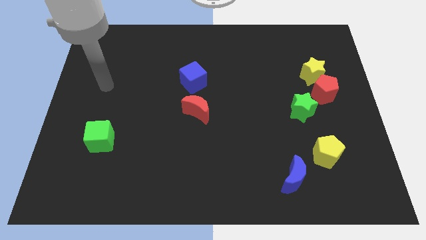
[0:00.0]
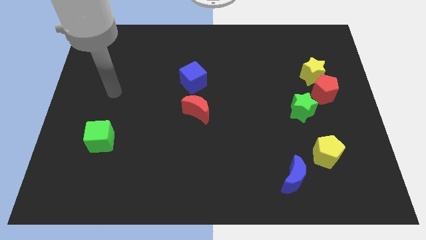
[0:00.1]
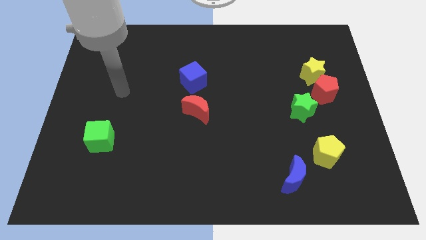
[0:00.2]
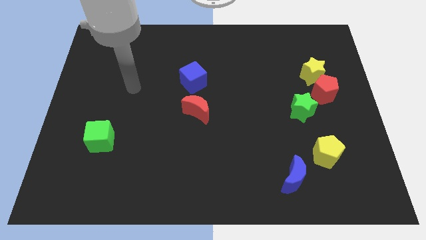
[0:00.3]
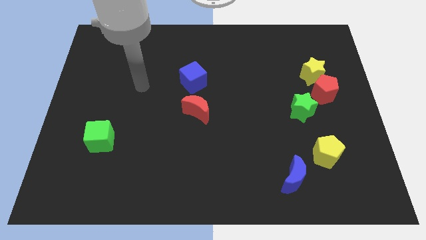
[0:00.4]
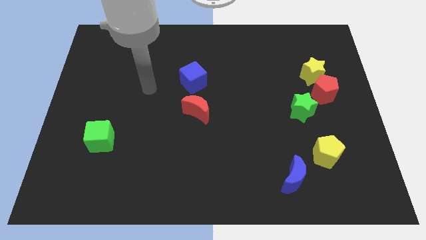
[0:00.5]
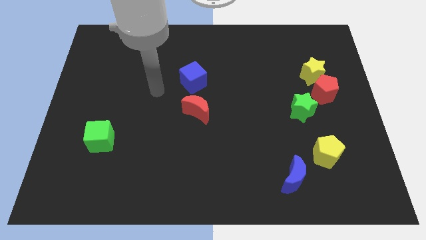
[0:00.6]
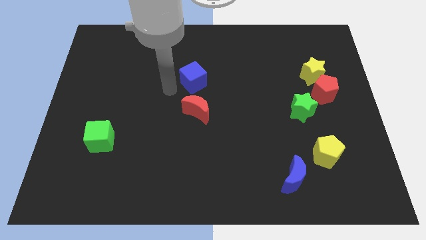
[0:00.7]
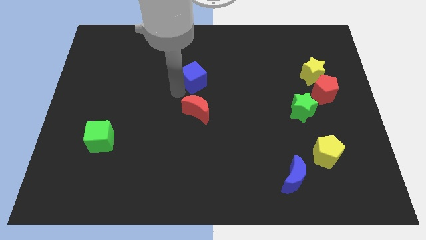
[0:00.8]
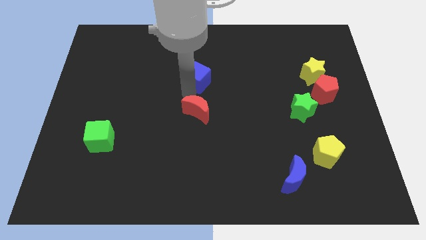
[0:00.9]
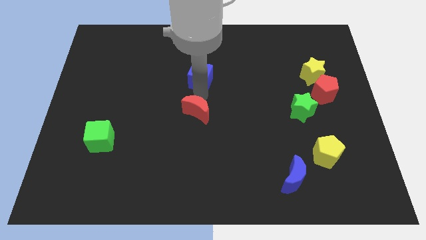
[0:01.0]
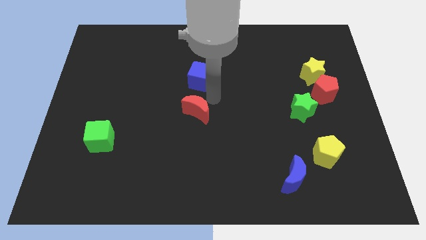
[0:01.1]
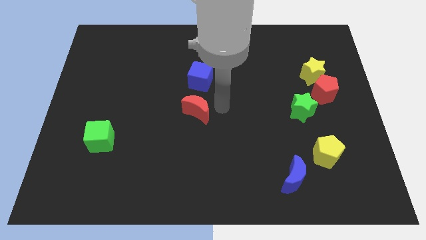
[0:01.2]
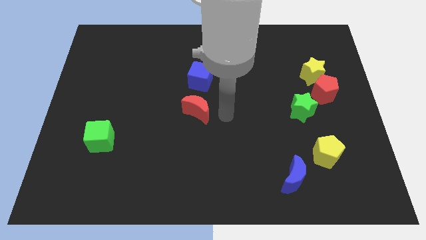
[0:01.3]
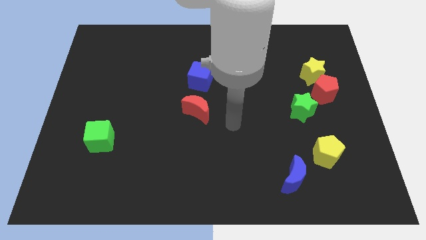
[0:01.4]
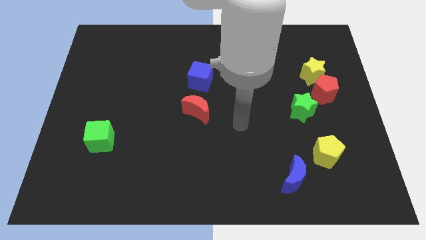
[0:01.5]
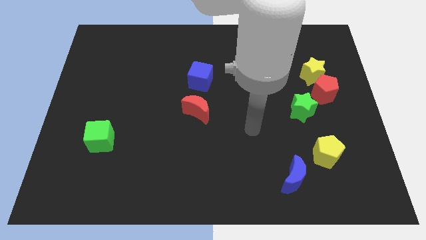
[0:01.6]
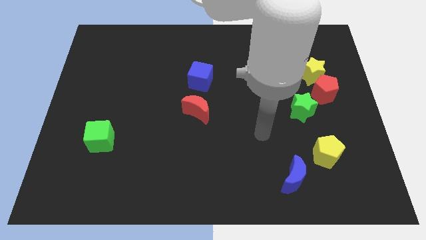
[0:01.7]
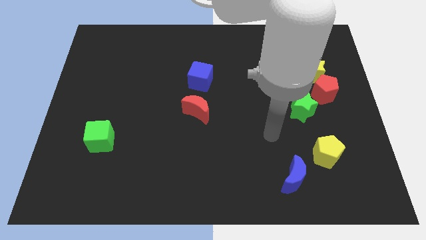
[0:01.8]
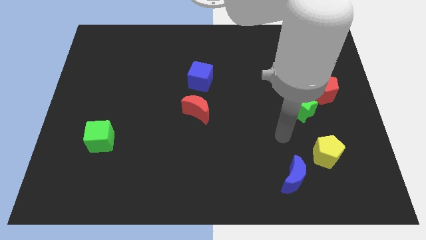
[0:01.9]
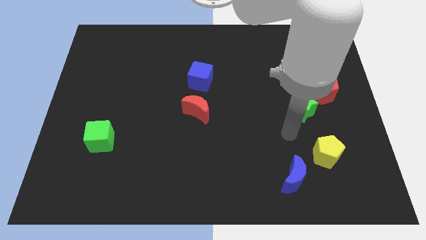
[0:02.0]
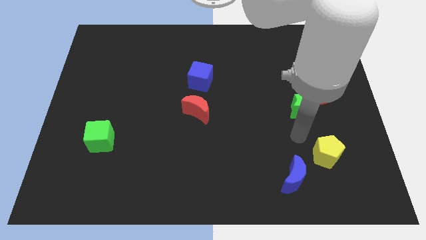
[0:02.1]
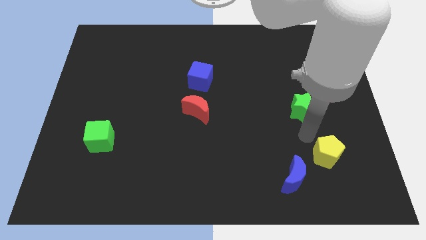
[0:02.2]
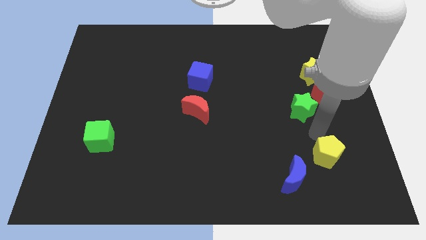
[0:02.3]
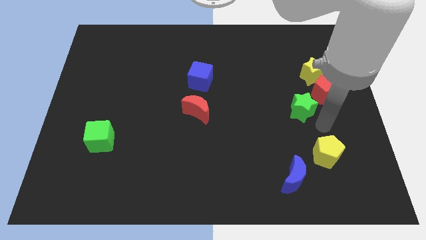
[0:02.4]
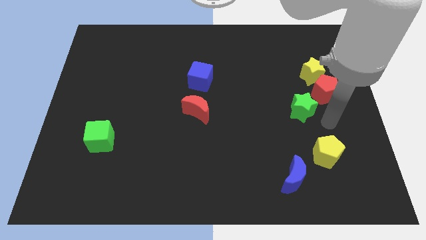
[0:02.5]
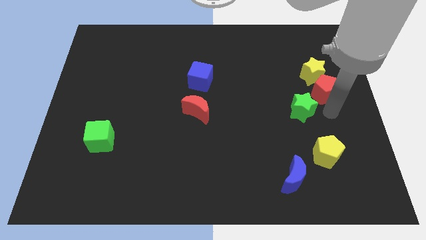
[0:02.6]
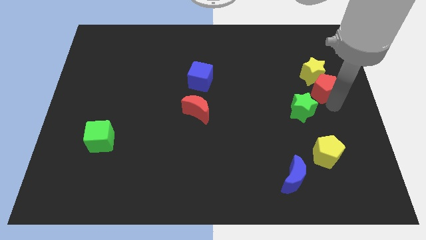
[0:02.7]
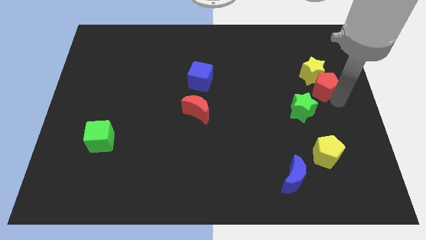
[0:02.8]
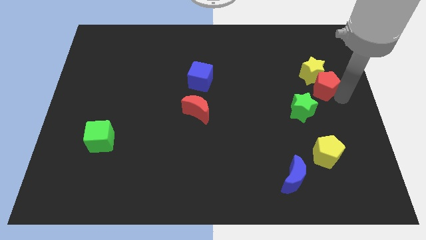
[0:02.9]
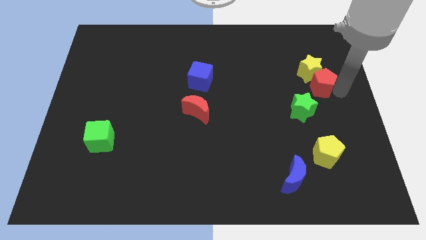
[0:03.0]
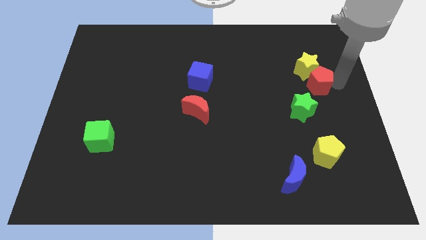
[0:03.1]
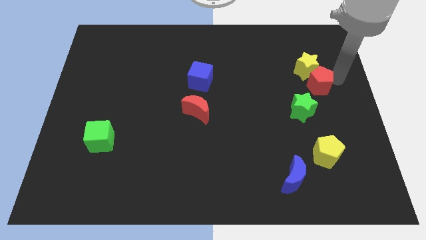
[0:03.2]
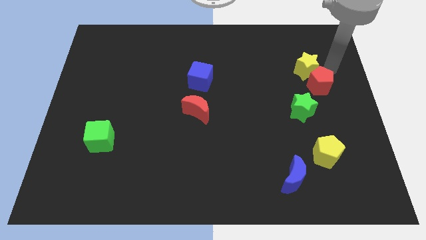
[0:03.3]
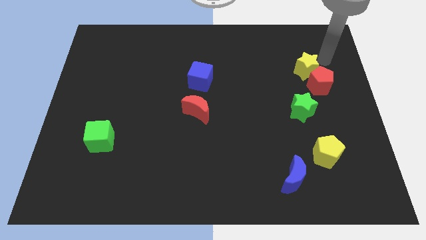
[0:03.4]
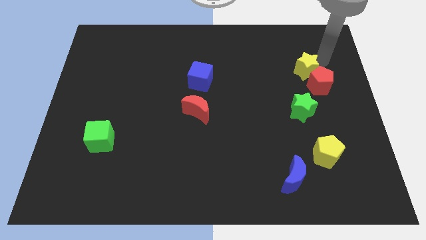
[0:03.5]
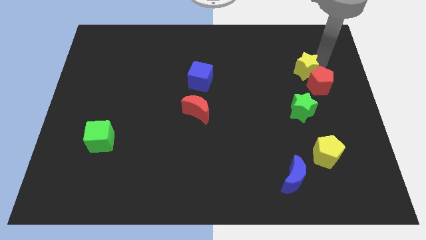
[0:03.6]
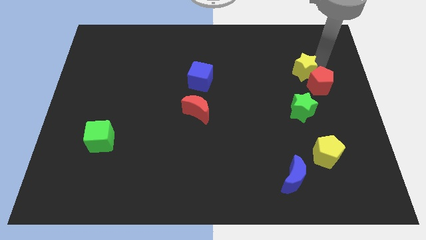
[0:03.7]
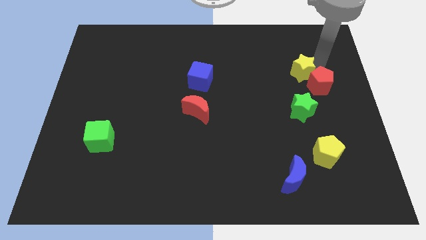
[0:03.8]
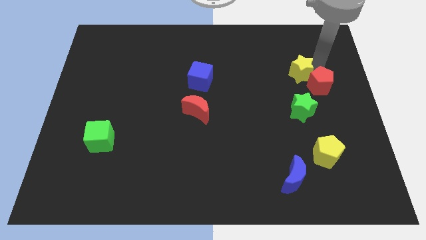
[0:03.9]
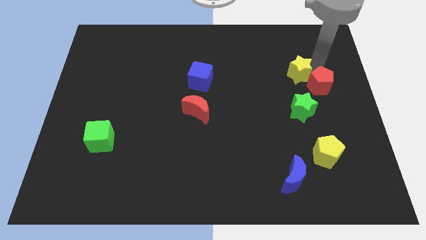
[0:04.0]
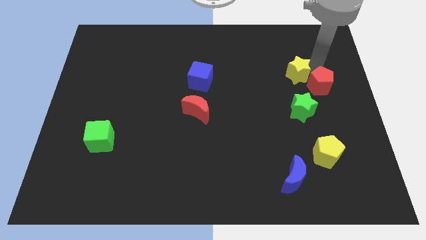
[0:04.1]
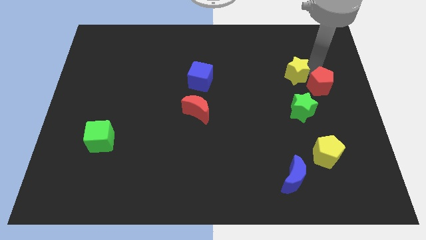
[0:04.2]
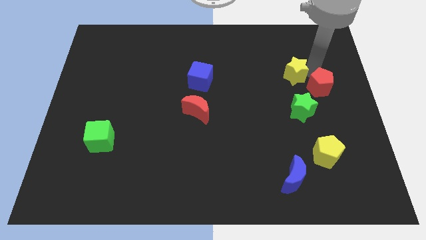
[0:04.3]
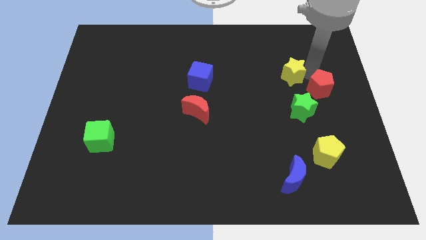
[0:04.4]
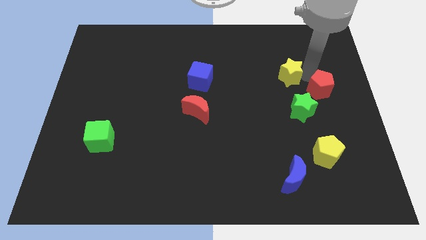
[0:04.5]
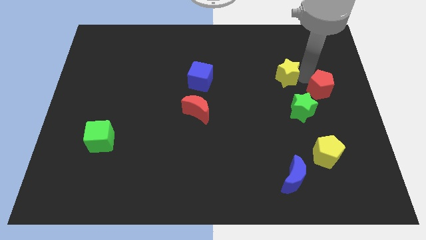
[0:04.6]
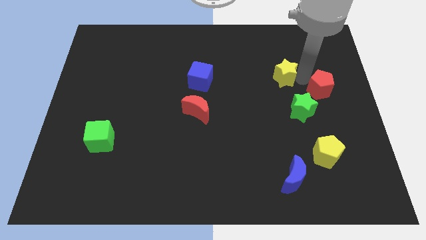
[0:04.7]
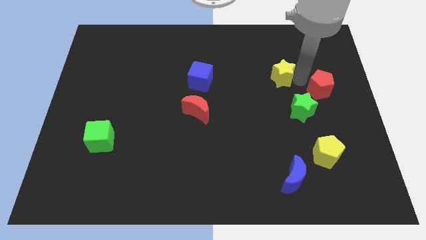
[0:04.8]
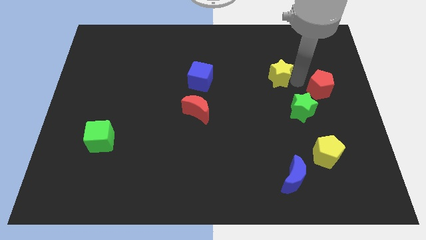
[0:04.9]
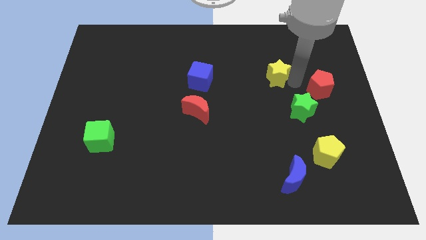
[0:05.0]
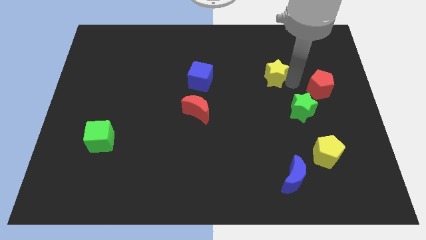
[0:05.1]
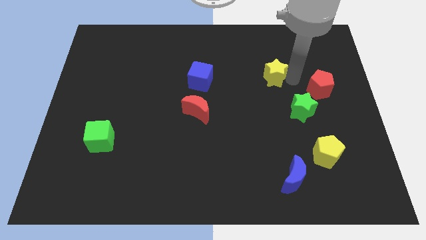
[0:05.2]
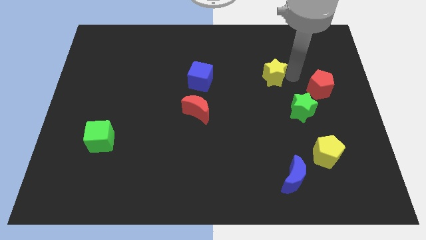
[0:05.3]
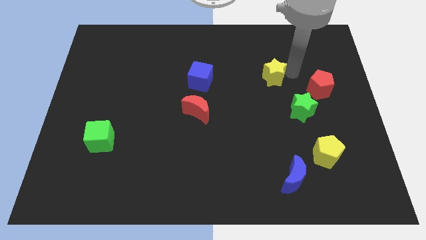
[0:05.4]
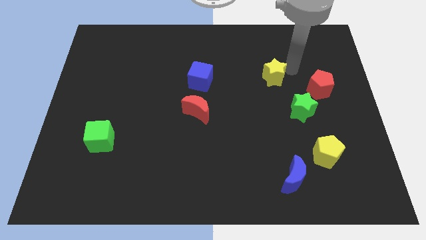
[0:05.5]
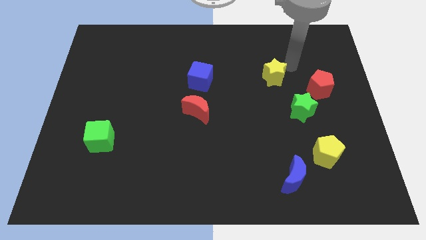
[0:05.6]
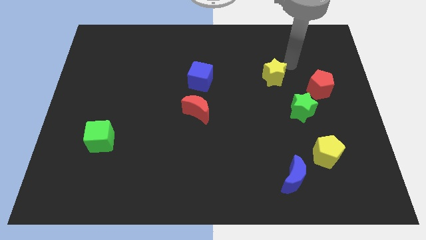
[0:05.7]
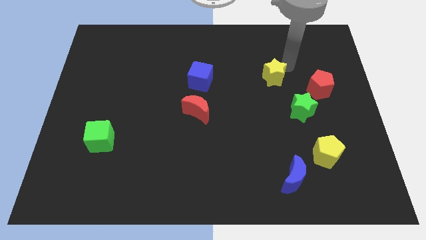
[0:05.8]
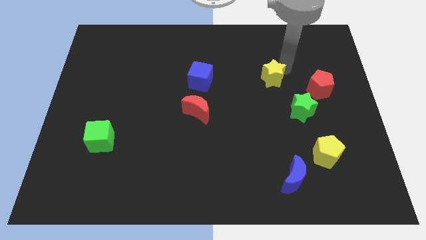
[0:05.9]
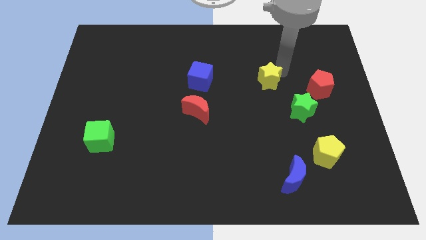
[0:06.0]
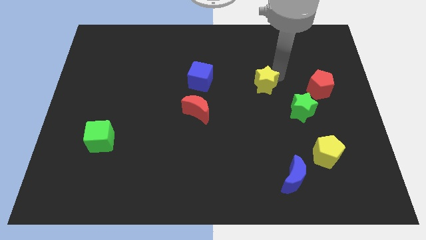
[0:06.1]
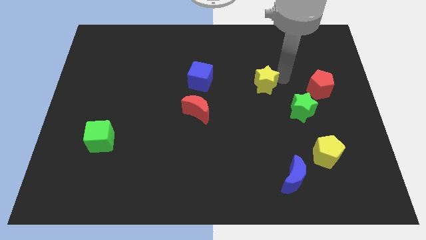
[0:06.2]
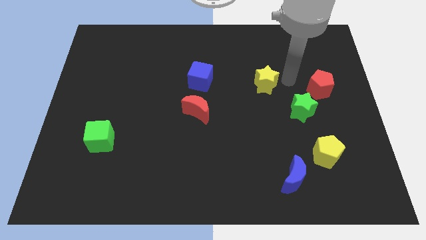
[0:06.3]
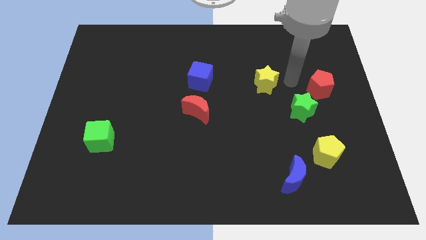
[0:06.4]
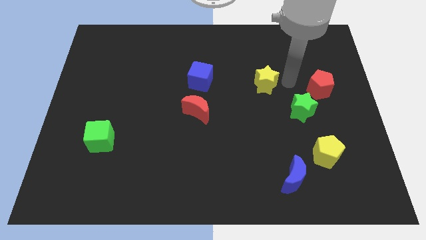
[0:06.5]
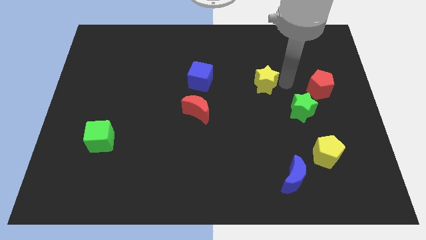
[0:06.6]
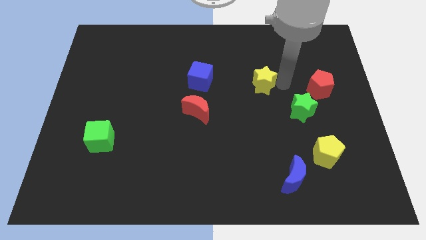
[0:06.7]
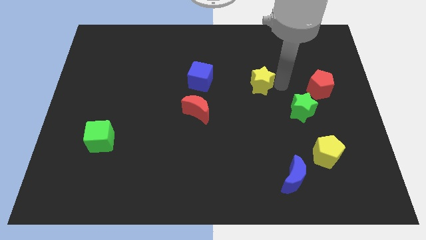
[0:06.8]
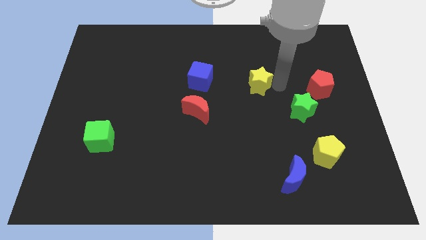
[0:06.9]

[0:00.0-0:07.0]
put the yellow star to the middle of the board
